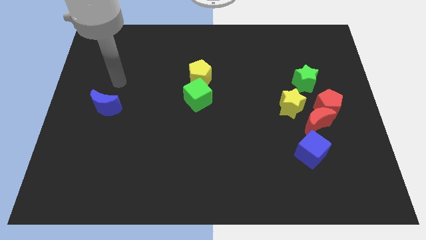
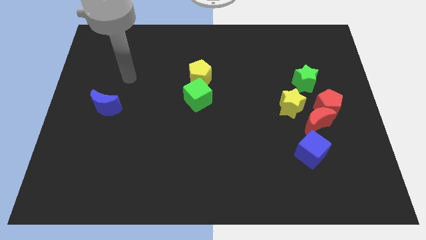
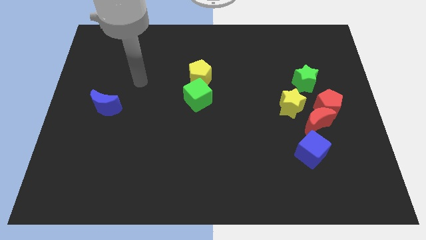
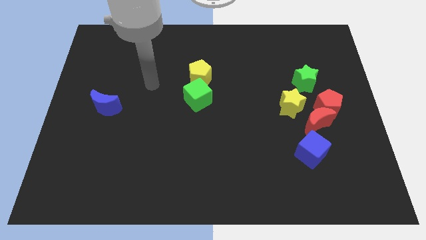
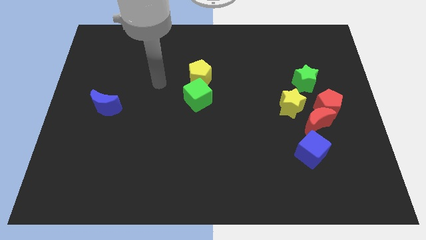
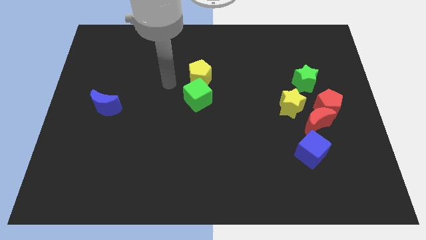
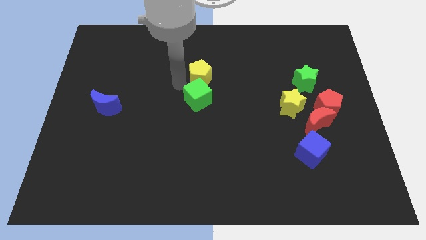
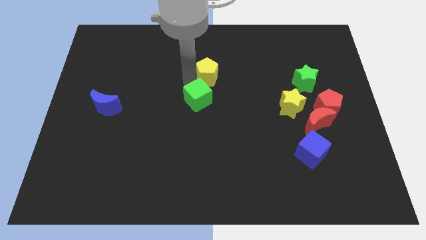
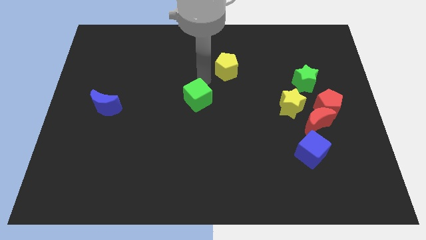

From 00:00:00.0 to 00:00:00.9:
move the green cube away from the yellow pentagon

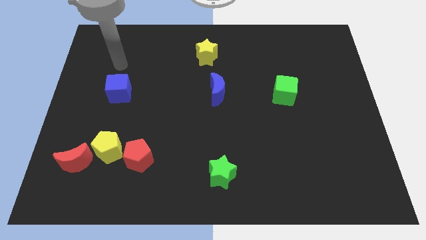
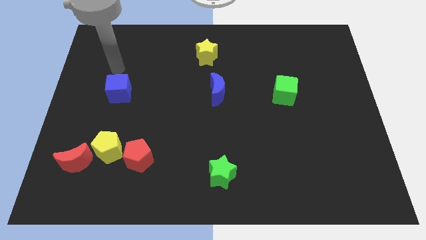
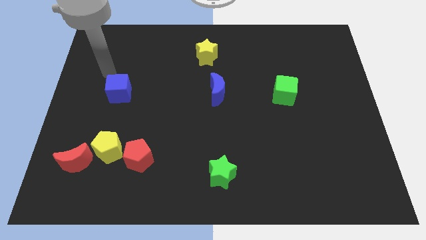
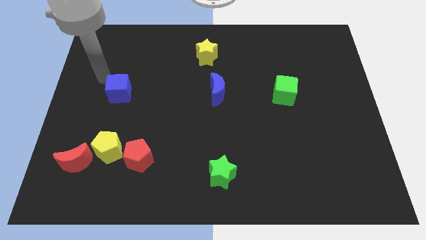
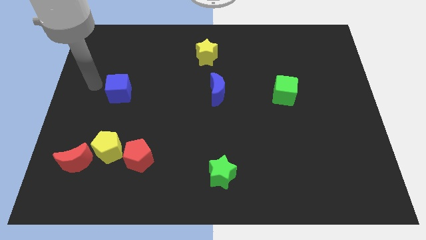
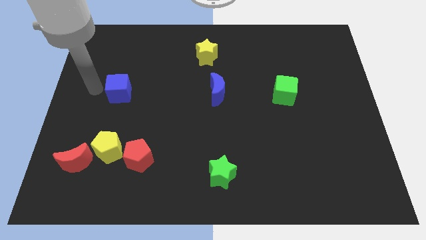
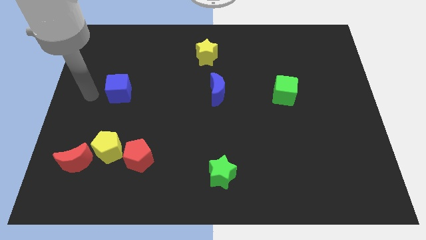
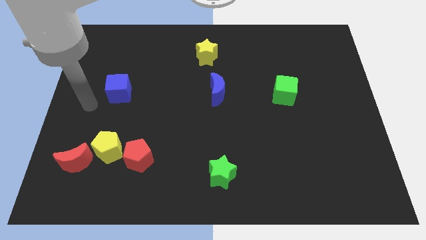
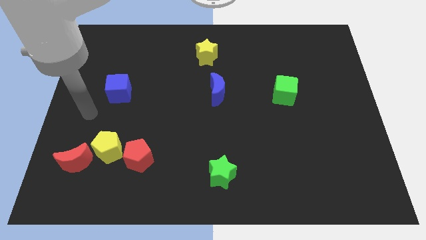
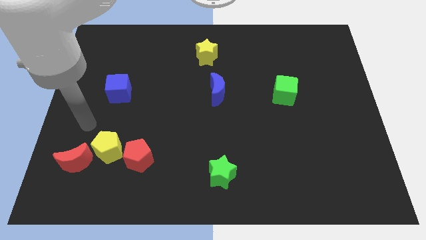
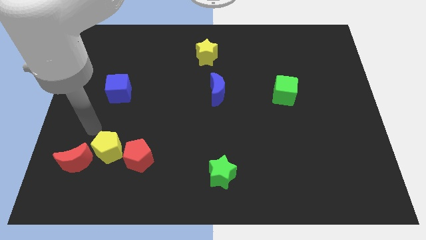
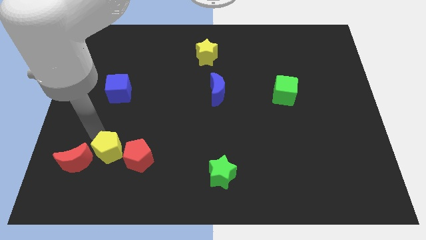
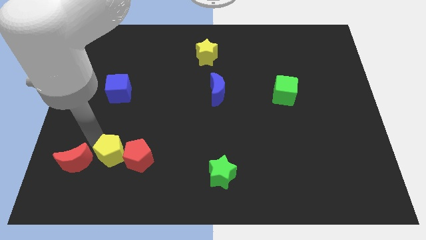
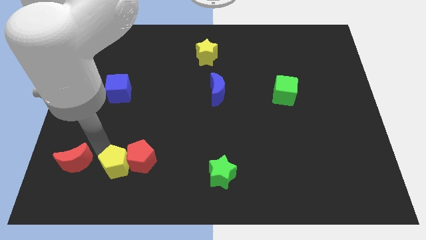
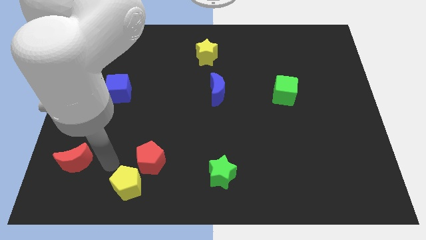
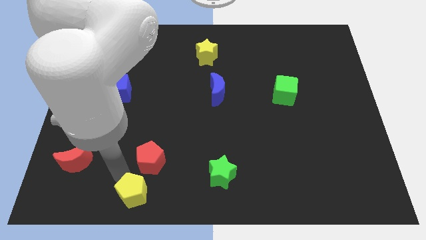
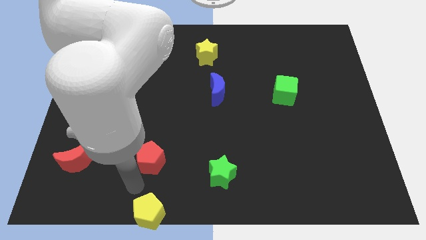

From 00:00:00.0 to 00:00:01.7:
pull the red pentagon apart from the yellow pentagon

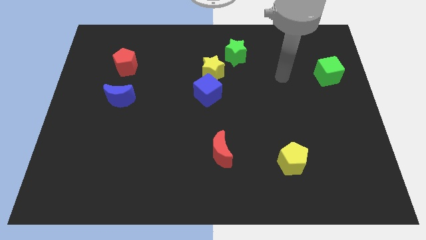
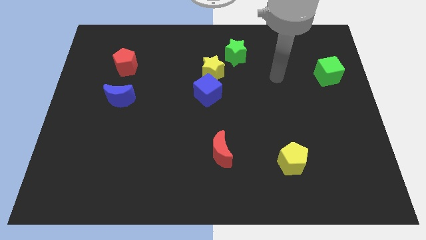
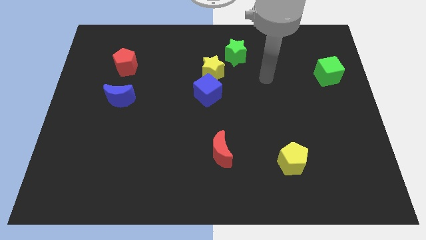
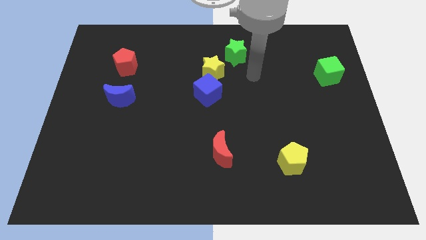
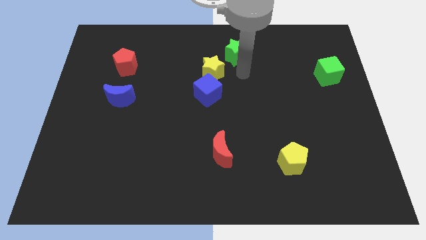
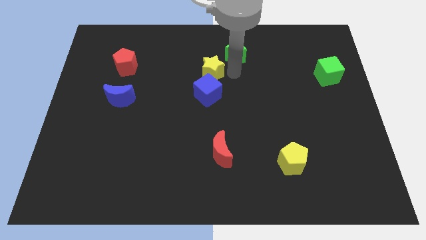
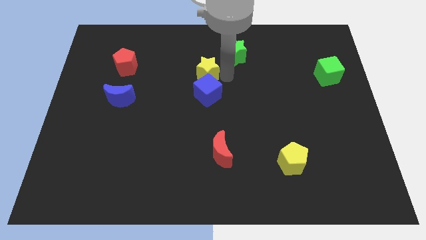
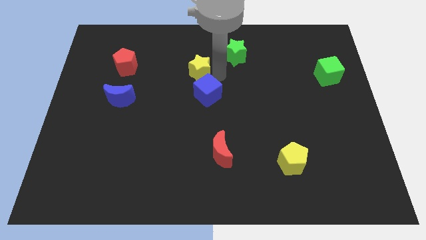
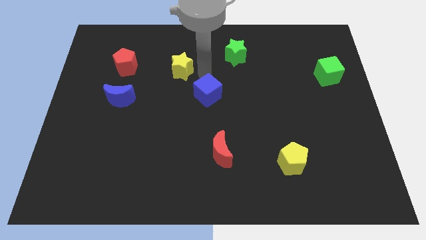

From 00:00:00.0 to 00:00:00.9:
pull the blue cube apart from the yellow star

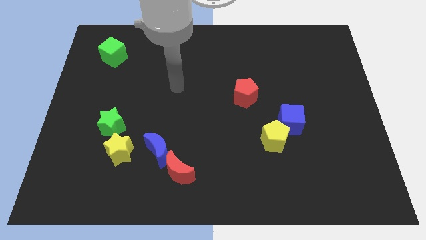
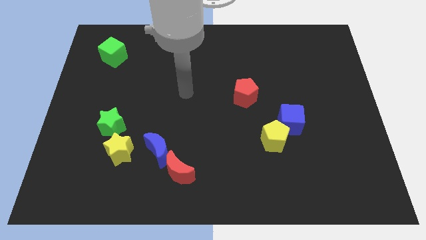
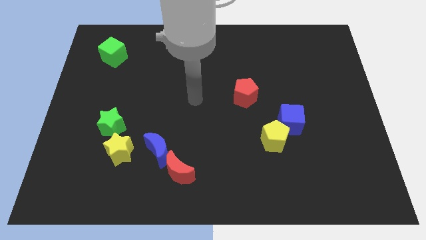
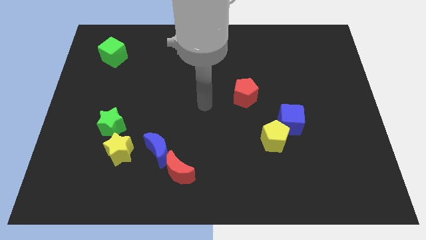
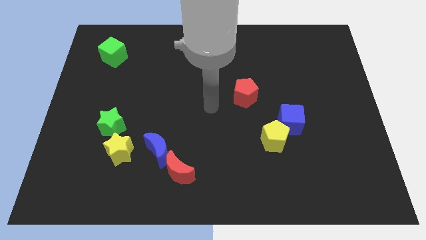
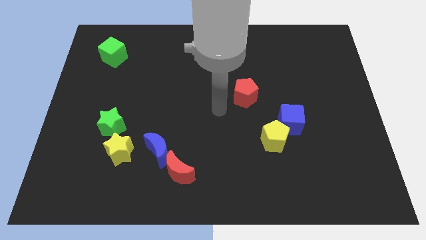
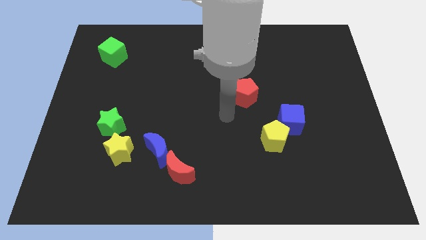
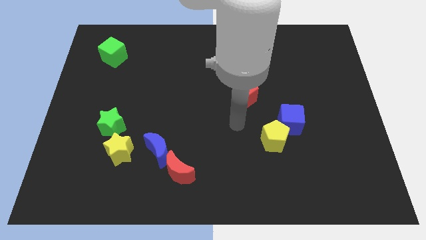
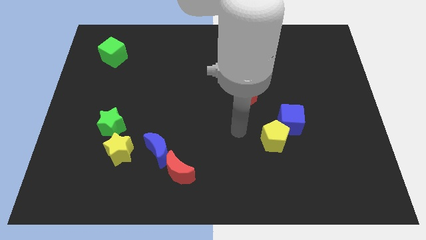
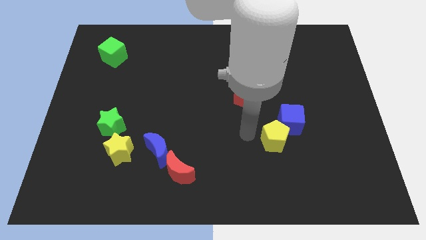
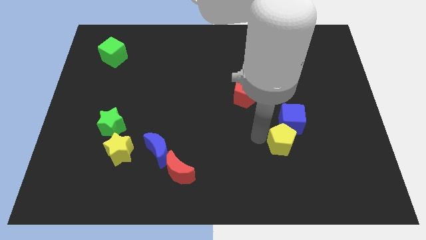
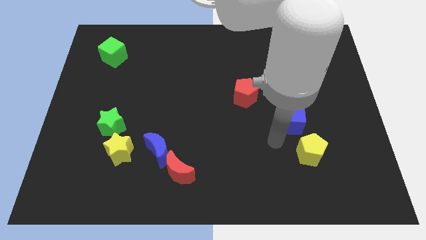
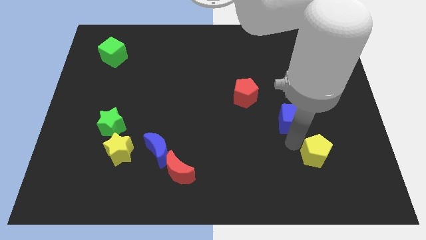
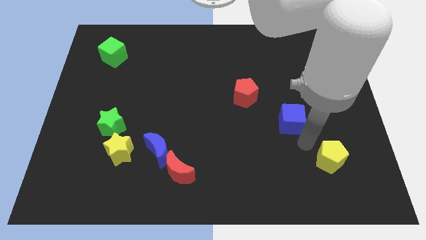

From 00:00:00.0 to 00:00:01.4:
pull the blue cube apart from the yellow pentagon

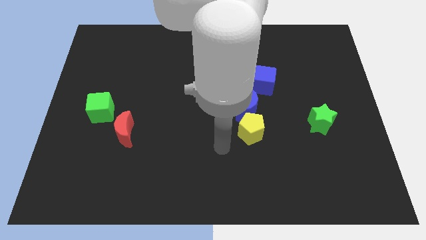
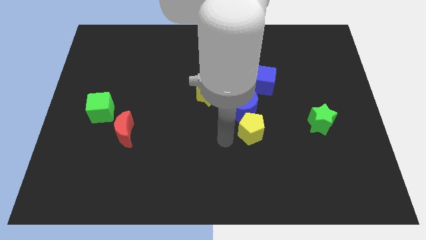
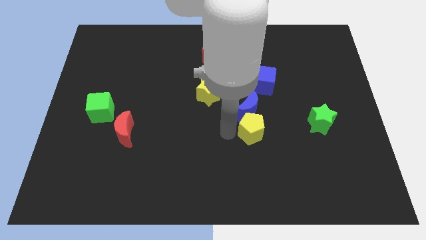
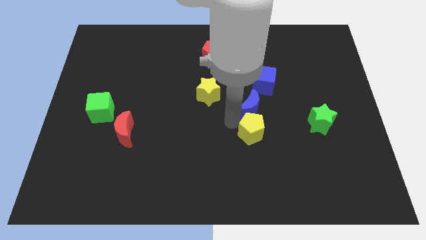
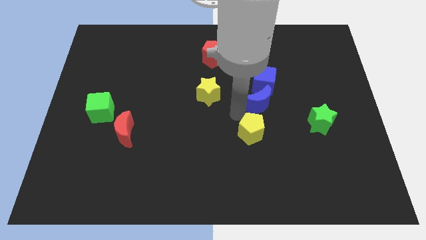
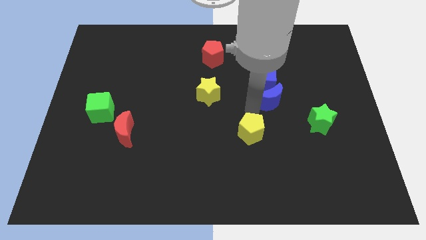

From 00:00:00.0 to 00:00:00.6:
move the yellow pentagon away from the blue moon

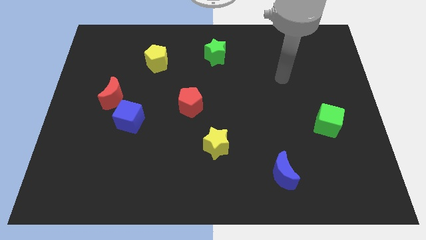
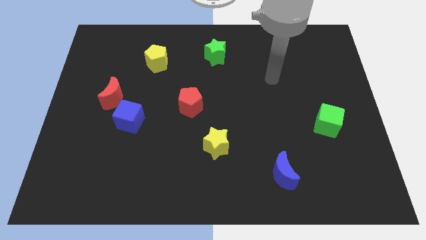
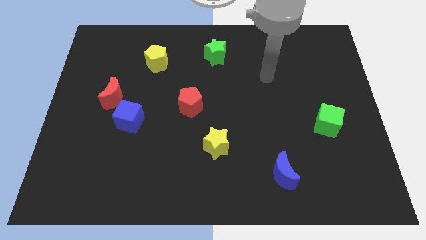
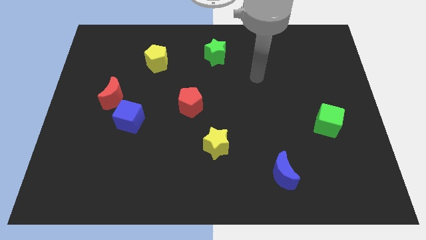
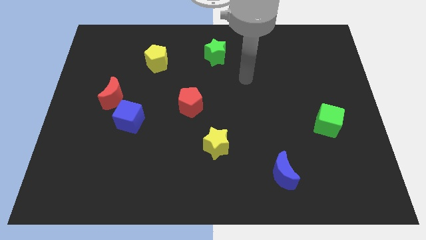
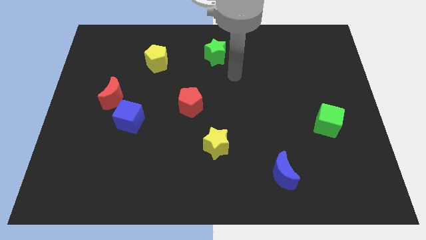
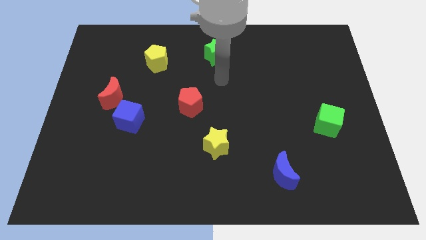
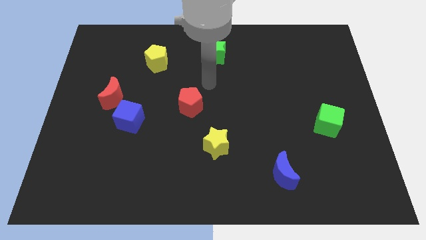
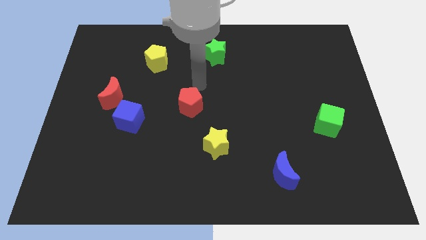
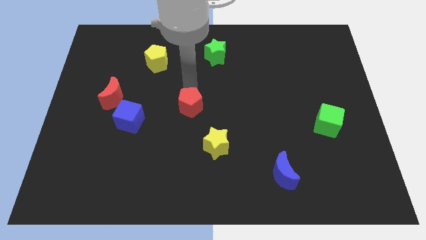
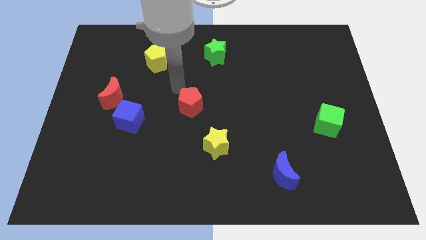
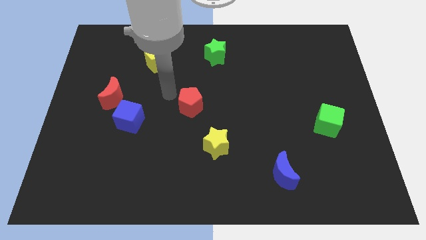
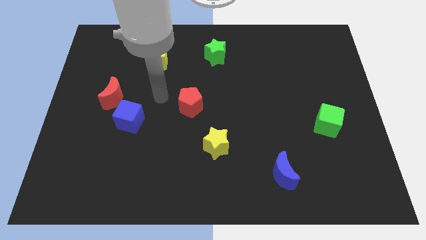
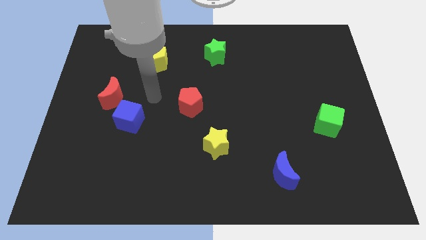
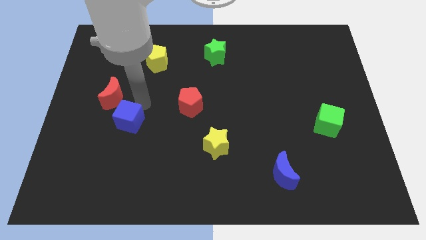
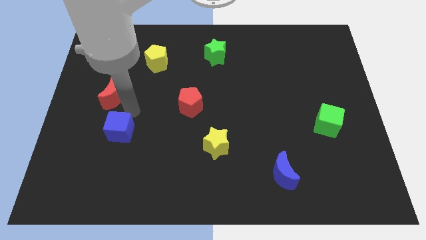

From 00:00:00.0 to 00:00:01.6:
move the red moon away from the blue cube

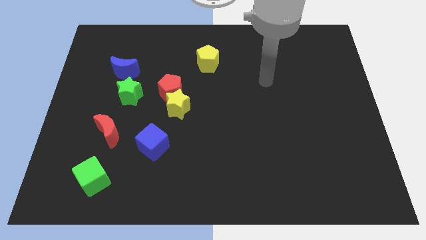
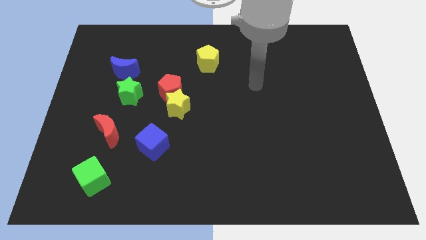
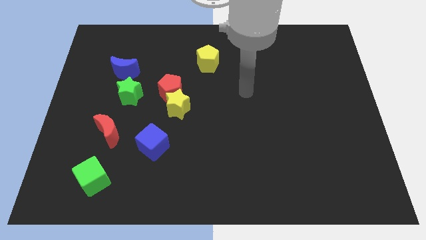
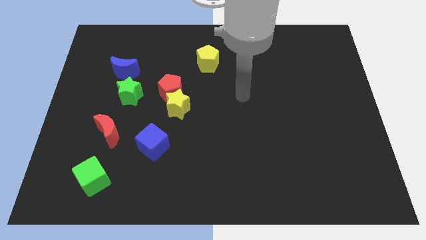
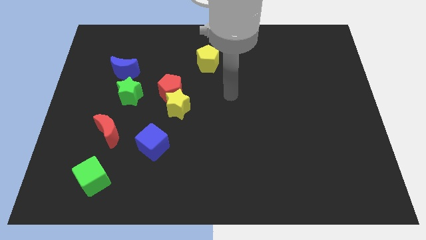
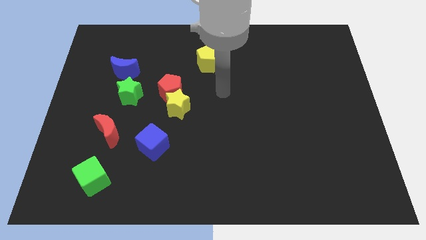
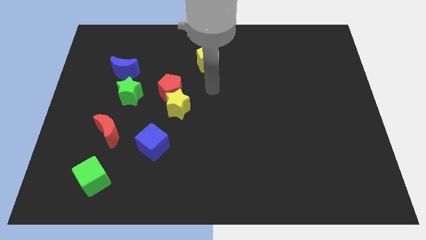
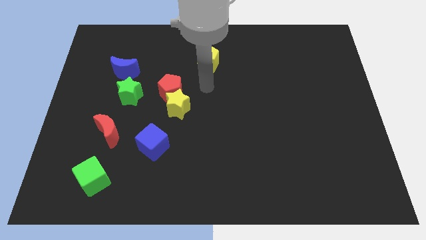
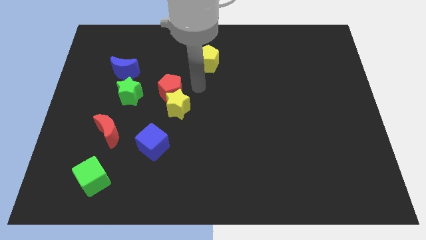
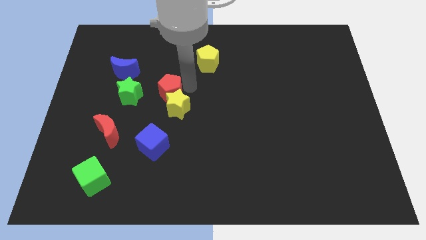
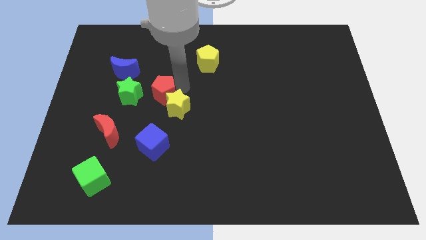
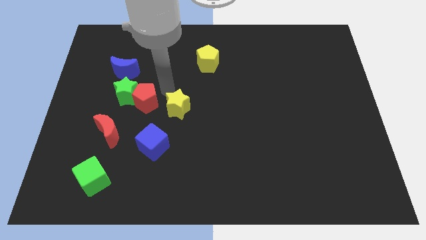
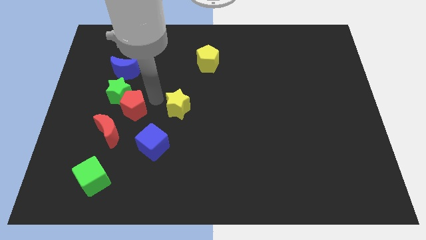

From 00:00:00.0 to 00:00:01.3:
pull the yellow star apart from the red pentagon

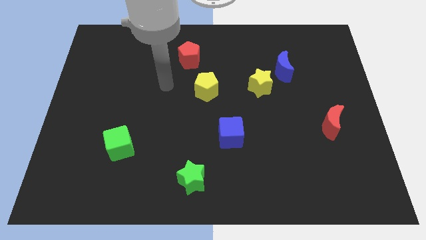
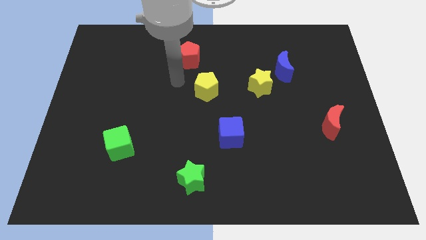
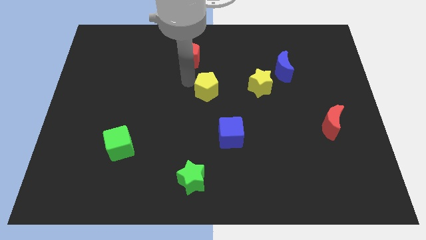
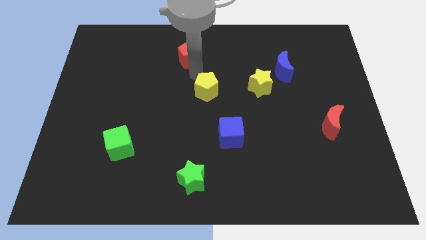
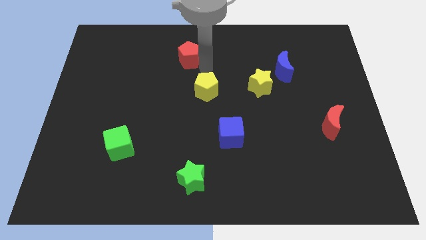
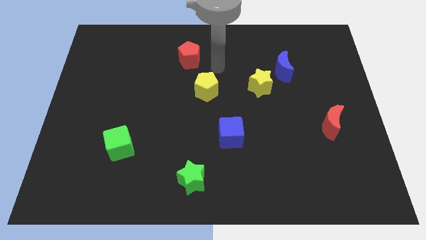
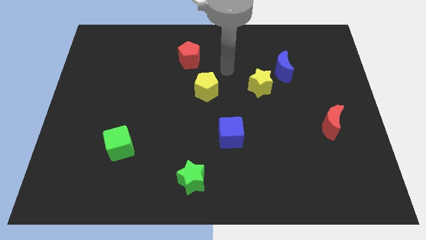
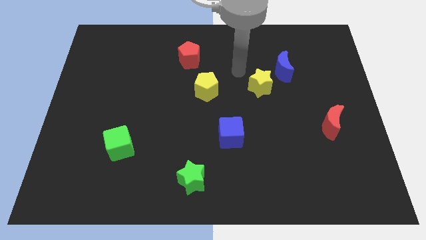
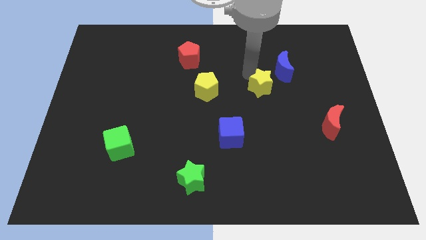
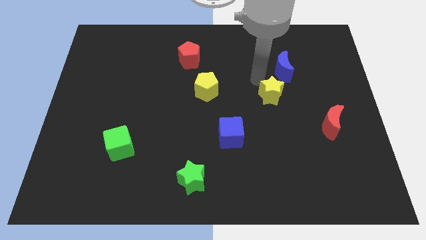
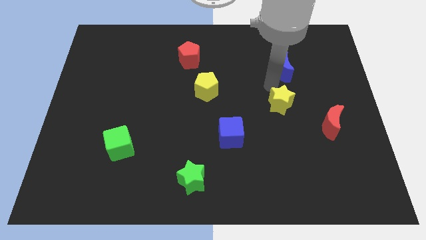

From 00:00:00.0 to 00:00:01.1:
separate the blue moon from the yellow star
